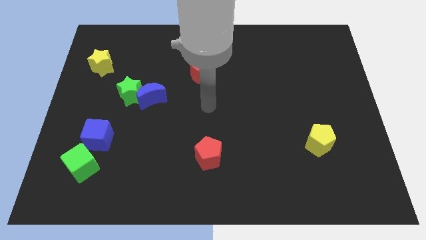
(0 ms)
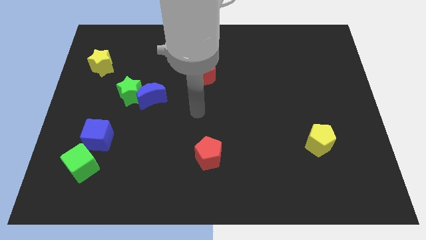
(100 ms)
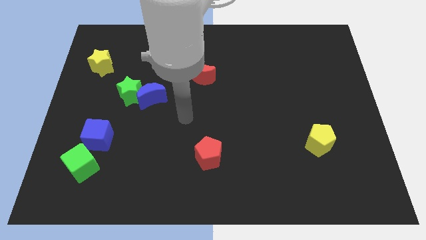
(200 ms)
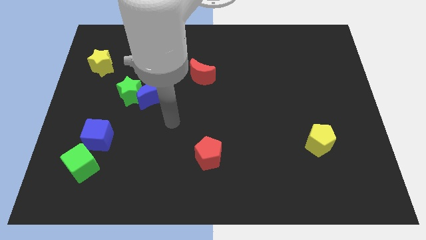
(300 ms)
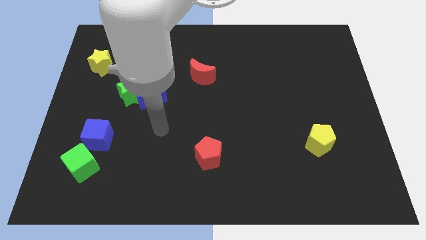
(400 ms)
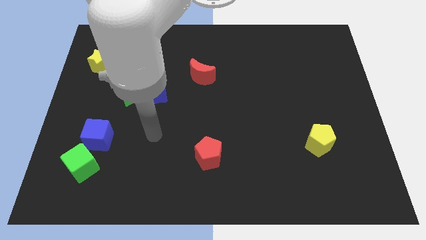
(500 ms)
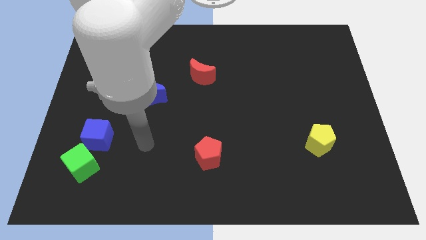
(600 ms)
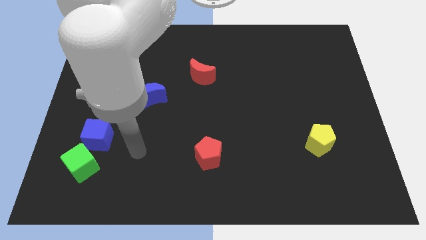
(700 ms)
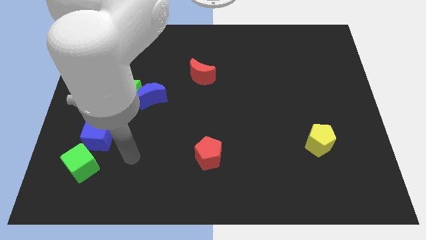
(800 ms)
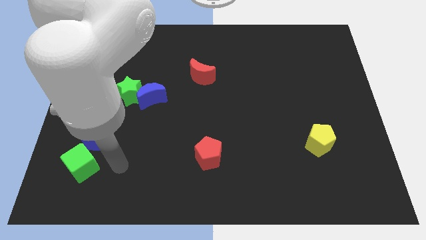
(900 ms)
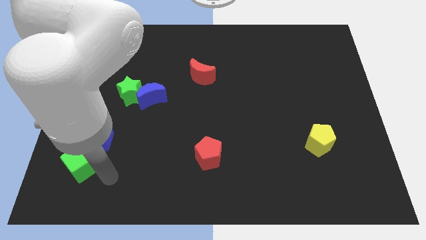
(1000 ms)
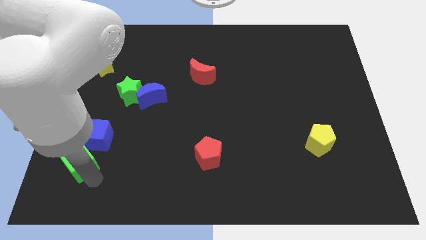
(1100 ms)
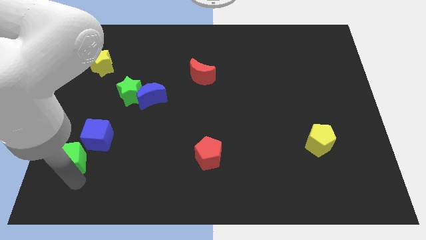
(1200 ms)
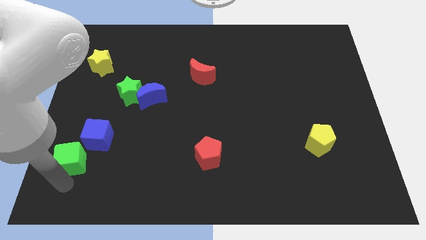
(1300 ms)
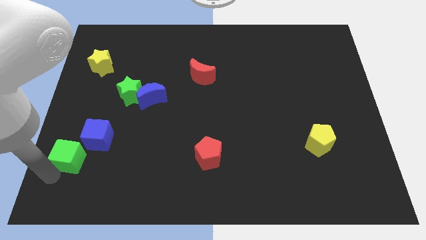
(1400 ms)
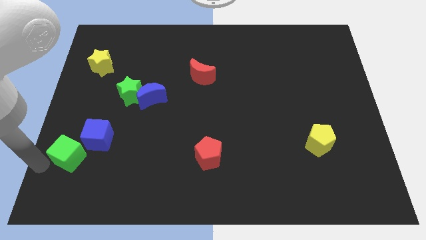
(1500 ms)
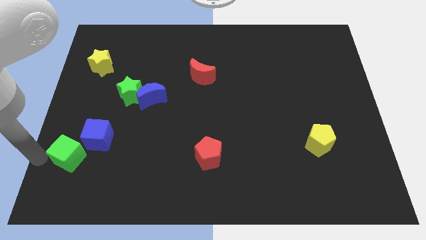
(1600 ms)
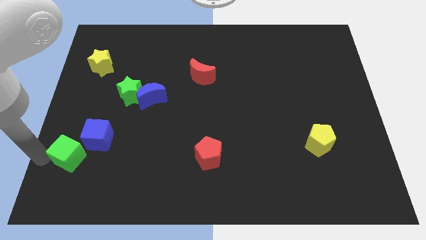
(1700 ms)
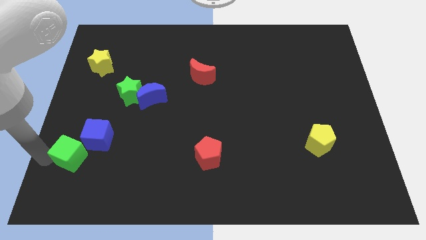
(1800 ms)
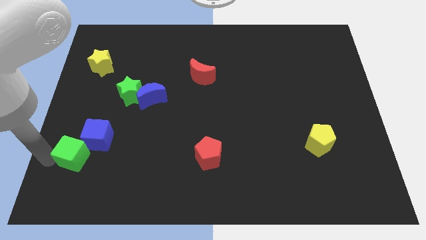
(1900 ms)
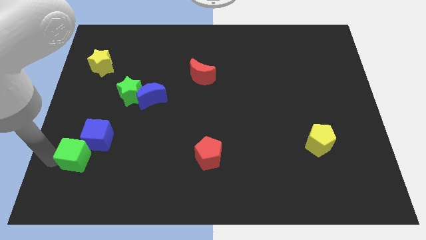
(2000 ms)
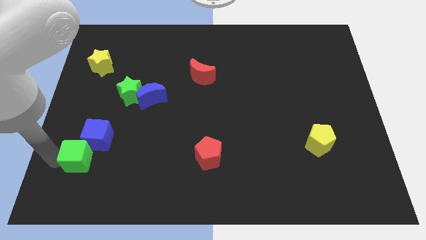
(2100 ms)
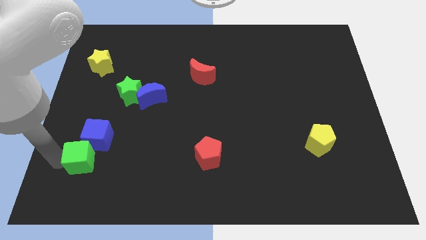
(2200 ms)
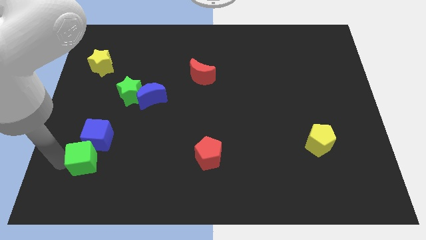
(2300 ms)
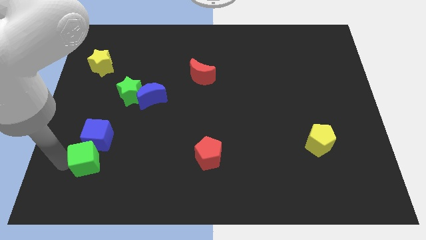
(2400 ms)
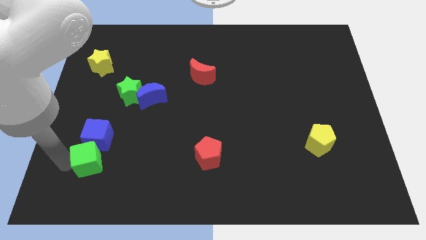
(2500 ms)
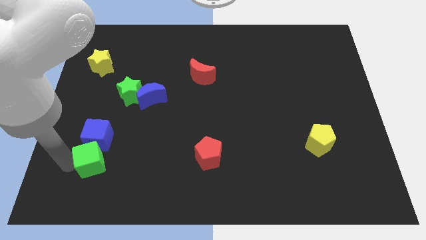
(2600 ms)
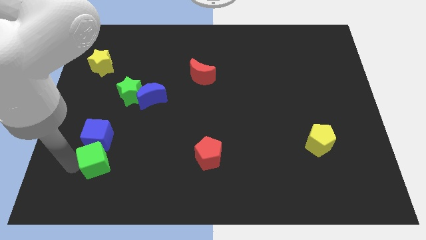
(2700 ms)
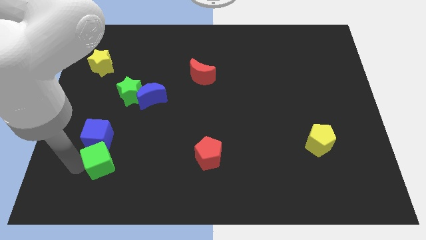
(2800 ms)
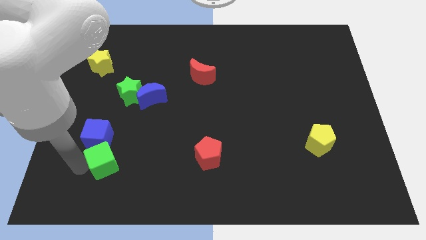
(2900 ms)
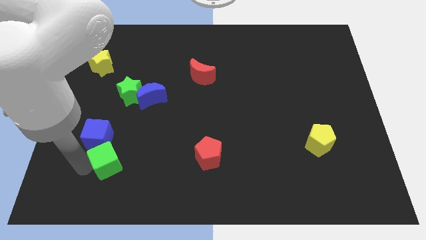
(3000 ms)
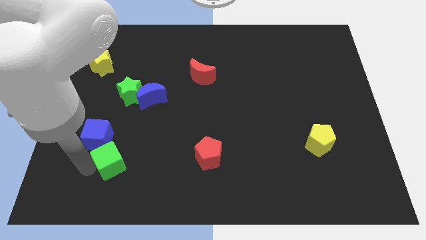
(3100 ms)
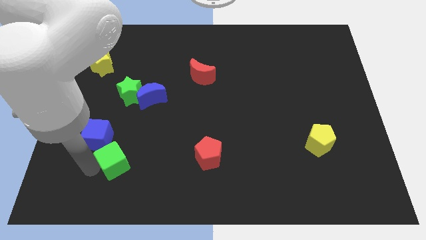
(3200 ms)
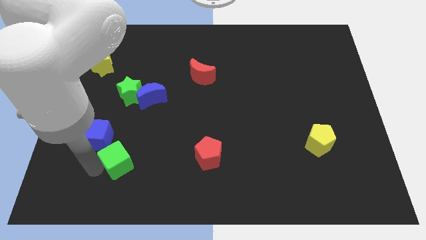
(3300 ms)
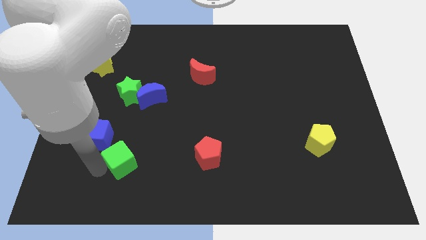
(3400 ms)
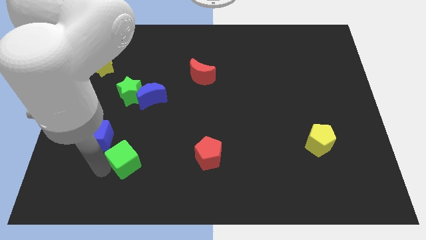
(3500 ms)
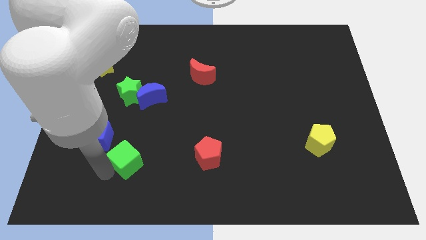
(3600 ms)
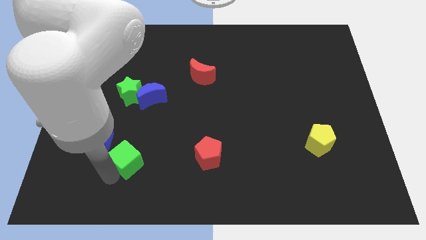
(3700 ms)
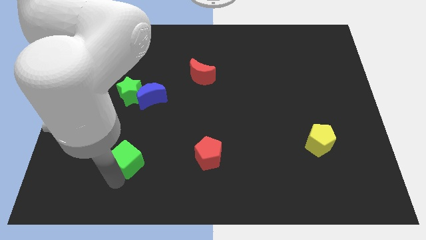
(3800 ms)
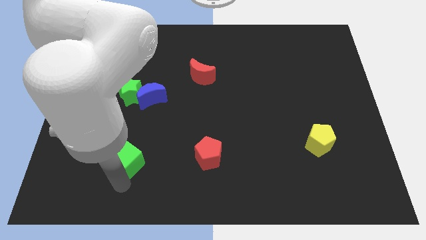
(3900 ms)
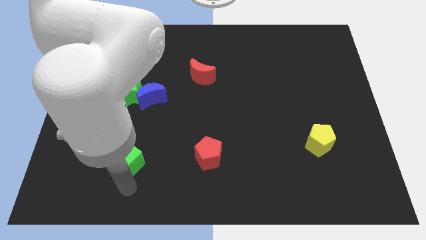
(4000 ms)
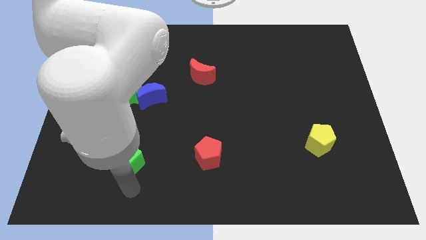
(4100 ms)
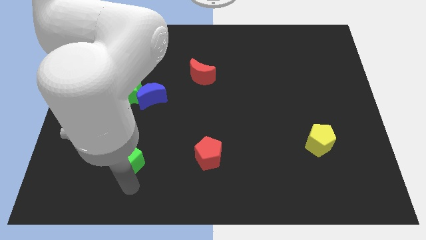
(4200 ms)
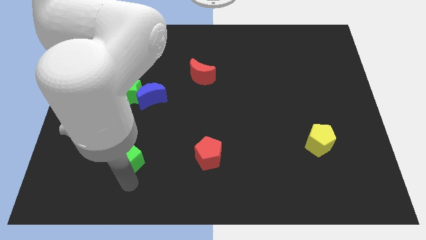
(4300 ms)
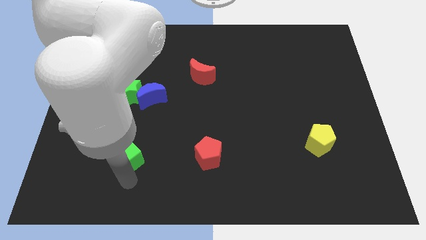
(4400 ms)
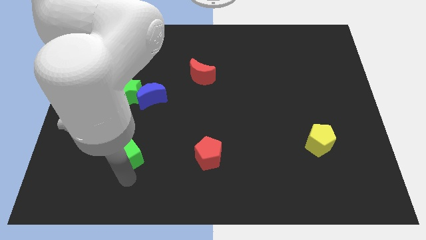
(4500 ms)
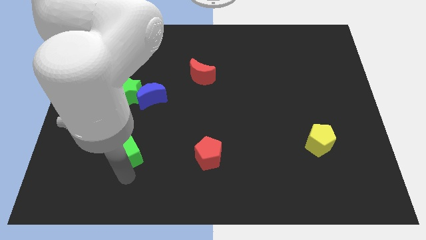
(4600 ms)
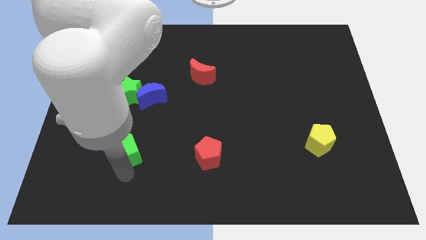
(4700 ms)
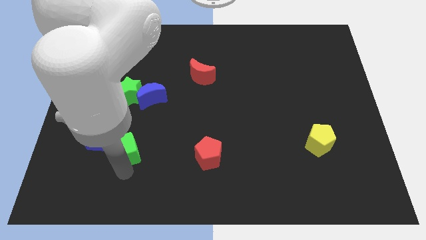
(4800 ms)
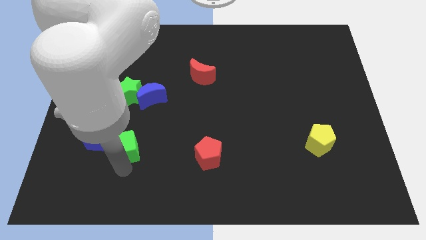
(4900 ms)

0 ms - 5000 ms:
put the green cube to the bottom side of the blue moon

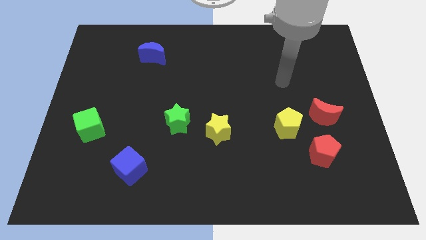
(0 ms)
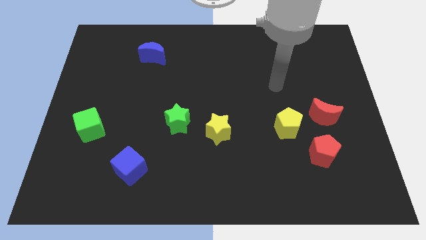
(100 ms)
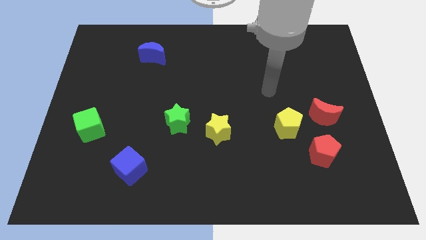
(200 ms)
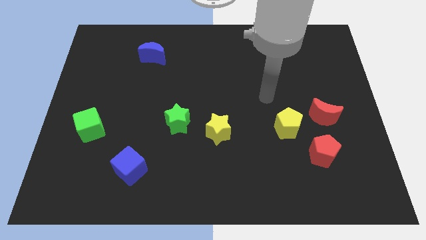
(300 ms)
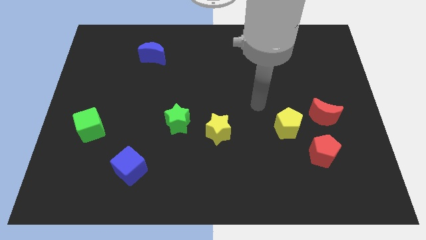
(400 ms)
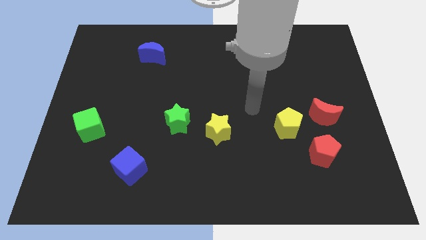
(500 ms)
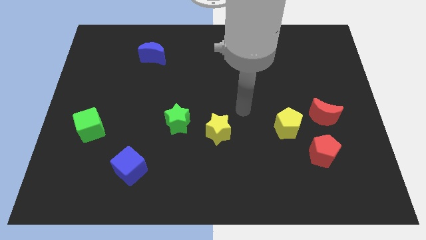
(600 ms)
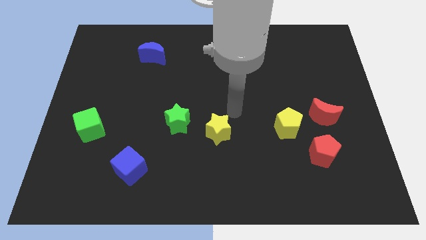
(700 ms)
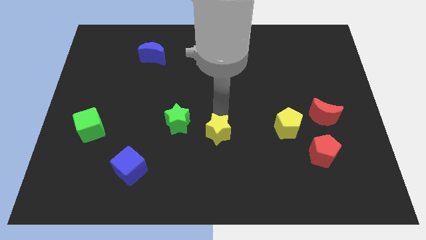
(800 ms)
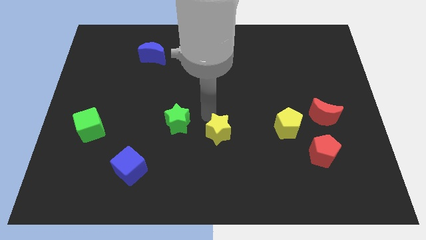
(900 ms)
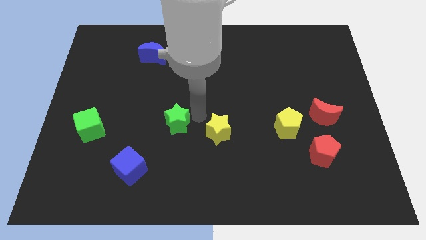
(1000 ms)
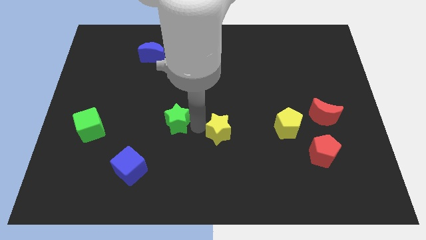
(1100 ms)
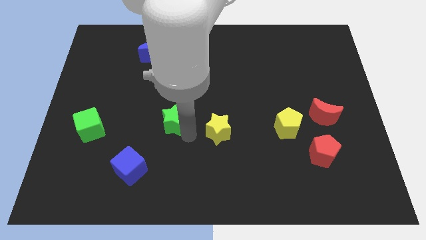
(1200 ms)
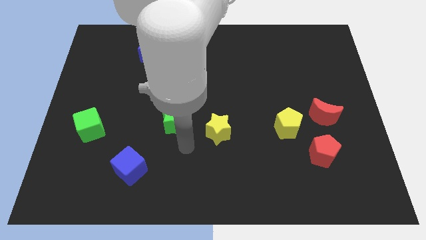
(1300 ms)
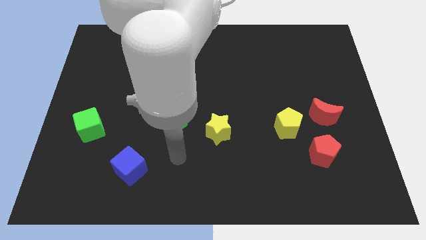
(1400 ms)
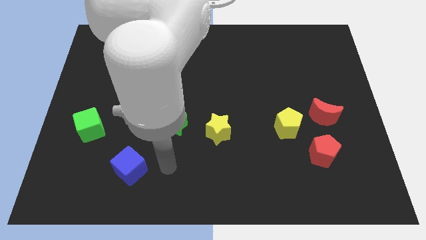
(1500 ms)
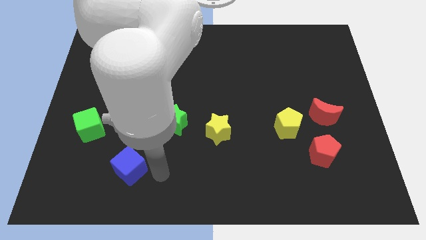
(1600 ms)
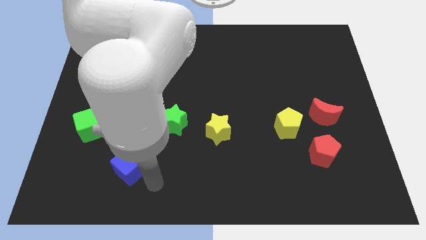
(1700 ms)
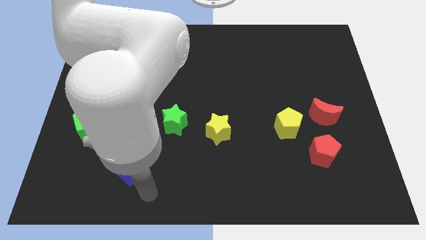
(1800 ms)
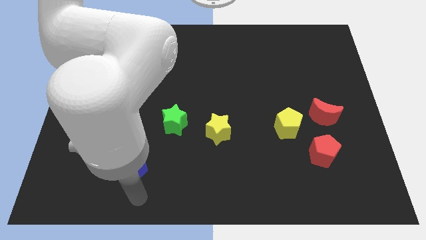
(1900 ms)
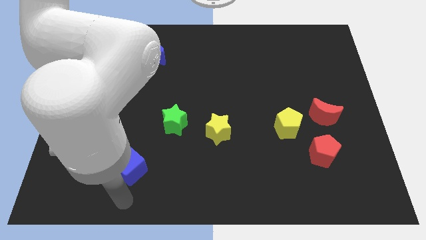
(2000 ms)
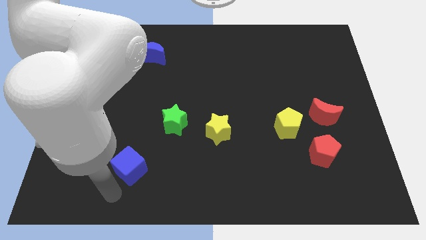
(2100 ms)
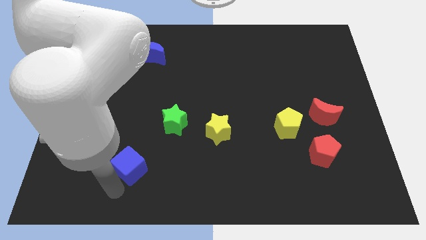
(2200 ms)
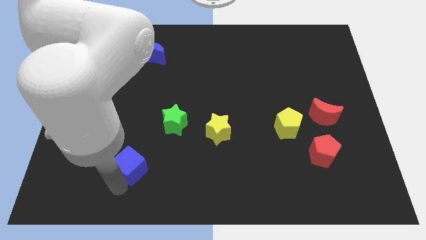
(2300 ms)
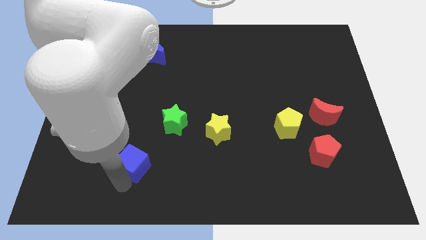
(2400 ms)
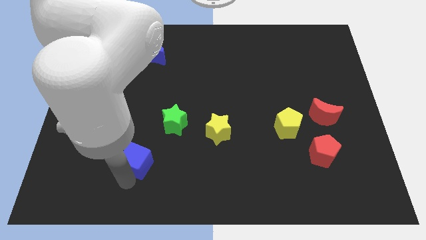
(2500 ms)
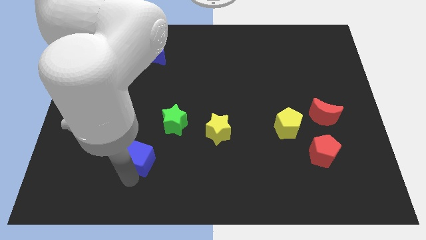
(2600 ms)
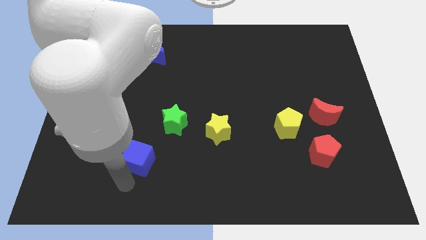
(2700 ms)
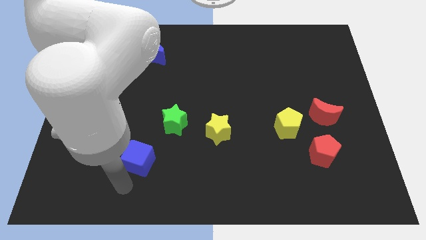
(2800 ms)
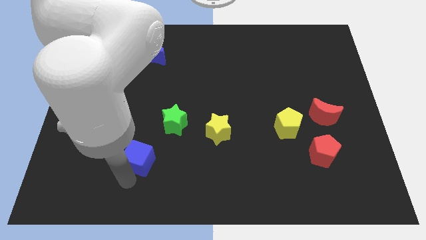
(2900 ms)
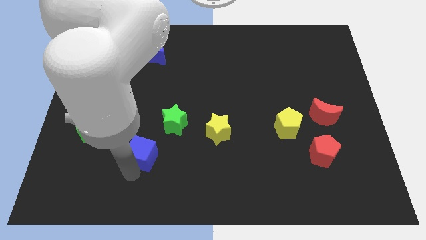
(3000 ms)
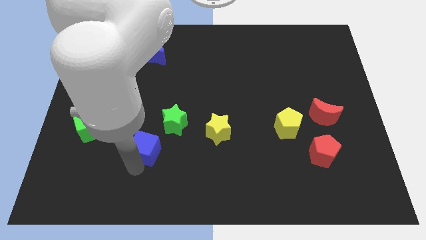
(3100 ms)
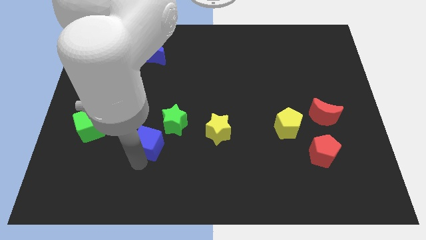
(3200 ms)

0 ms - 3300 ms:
push the blue cube to the left side of the yellow star

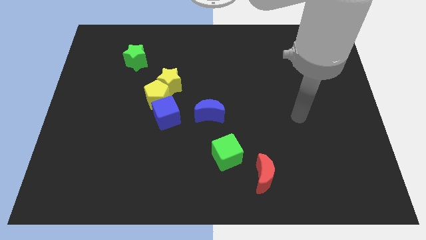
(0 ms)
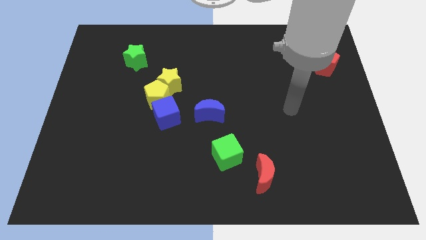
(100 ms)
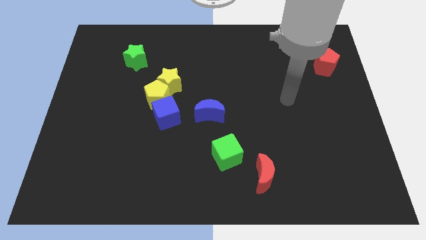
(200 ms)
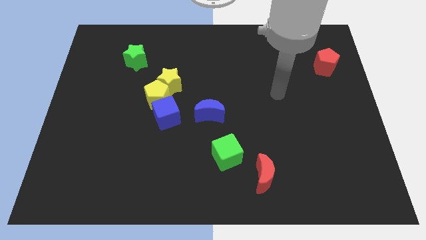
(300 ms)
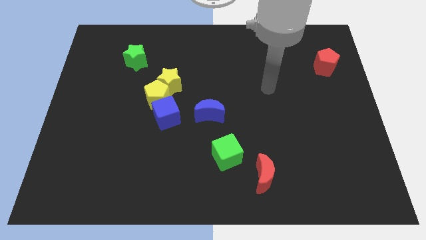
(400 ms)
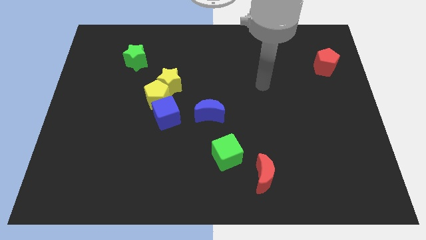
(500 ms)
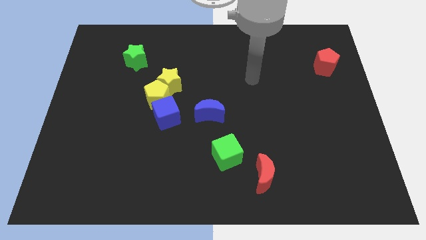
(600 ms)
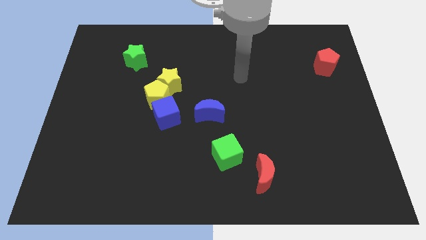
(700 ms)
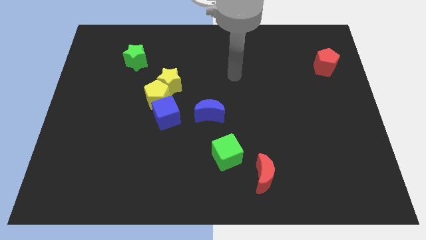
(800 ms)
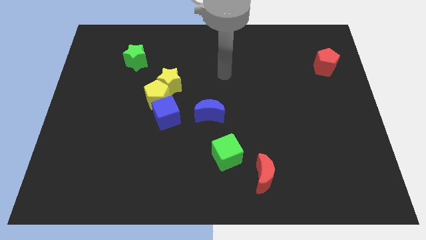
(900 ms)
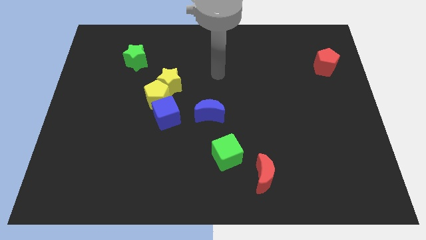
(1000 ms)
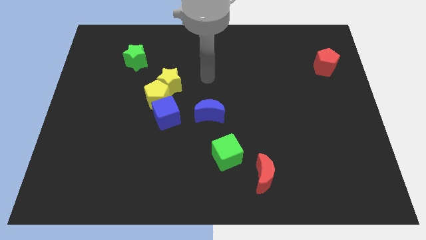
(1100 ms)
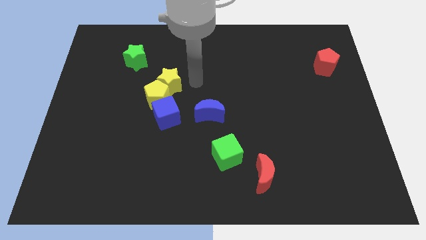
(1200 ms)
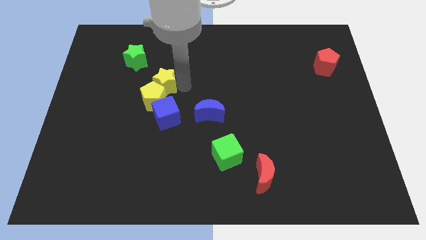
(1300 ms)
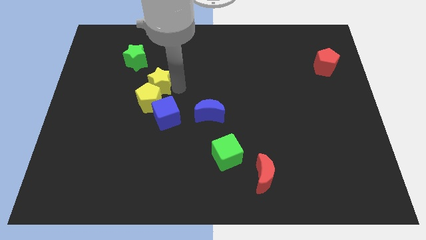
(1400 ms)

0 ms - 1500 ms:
move the yellow pentagon to the left side of the blue cube
